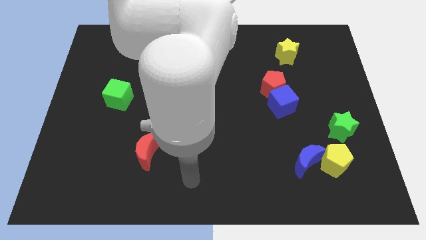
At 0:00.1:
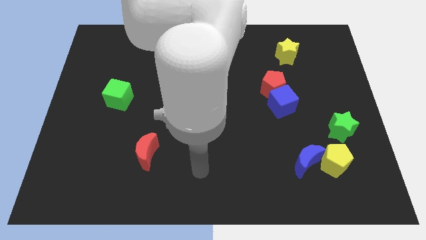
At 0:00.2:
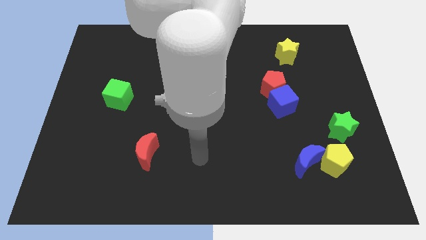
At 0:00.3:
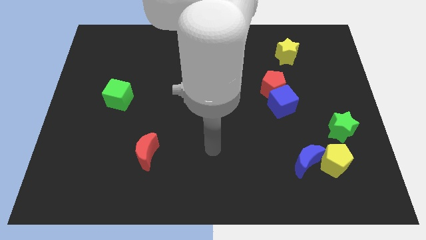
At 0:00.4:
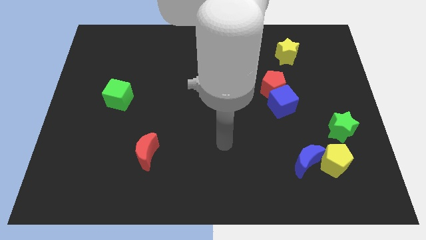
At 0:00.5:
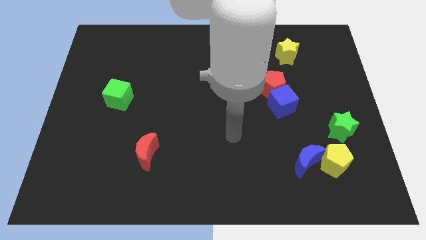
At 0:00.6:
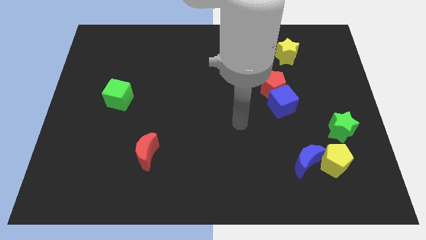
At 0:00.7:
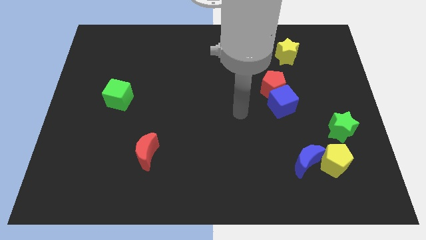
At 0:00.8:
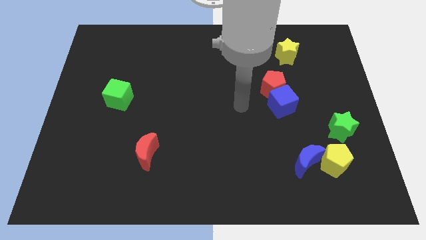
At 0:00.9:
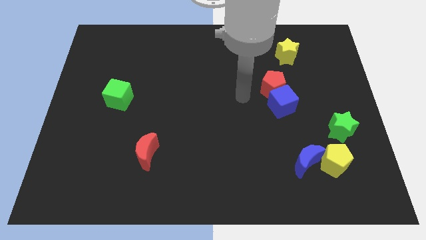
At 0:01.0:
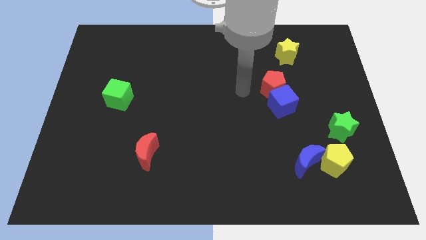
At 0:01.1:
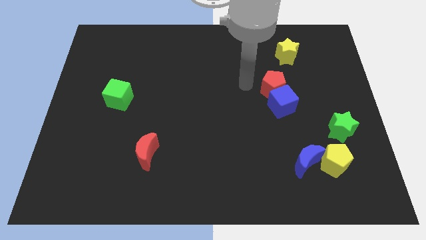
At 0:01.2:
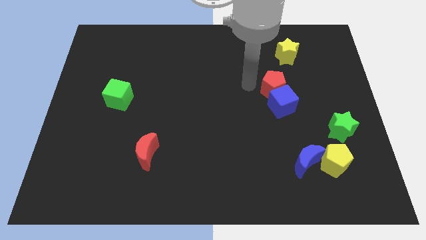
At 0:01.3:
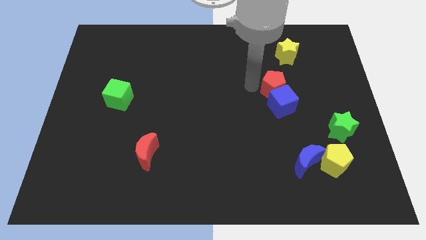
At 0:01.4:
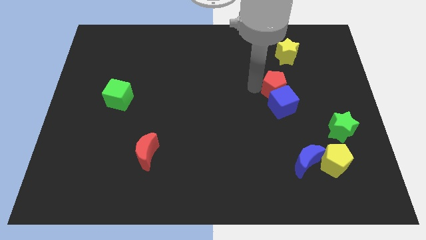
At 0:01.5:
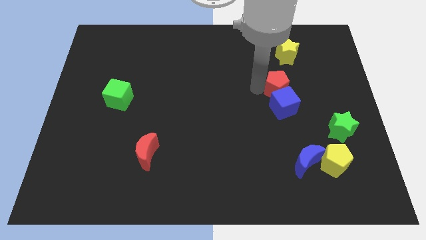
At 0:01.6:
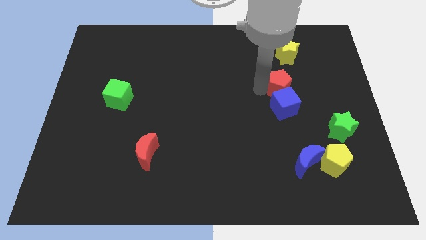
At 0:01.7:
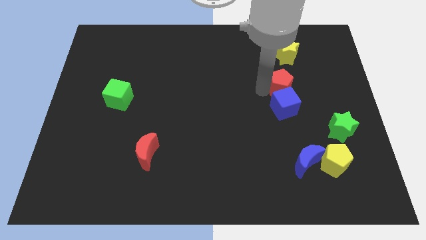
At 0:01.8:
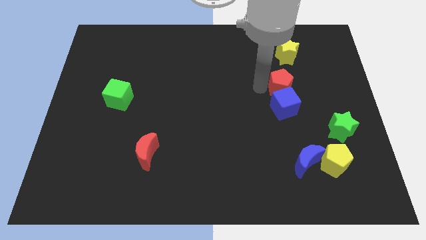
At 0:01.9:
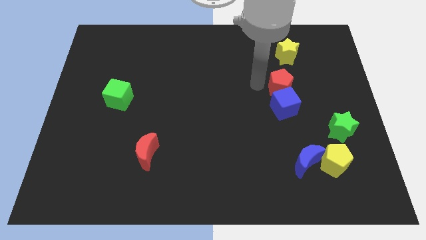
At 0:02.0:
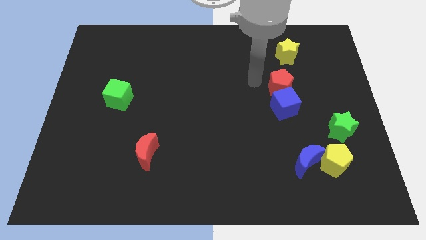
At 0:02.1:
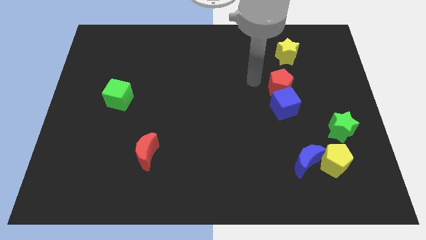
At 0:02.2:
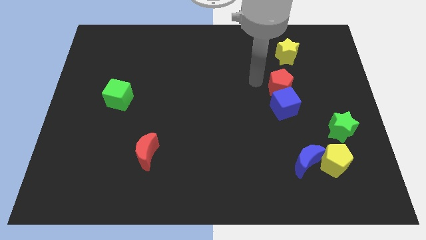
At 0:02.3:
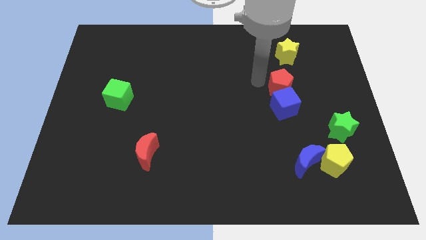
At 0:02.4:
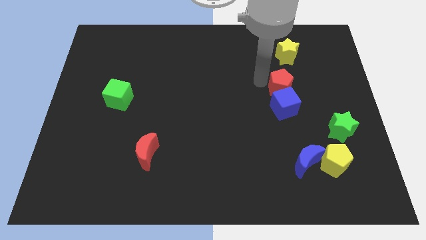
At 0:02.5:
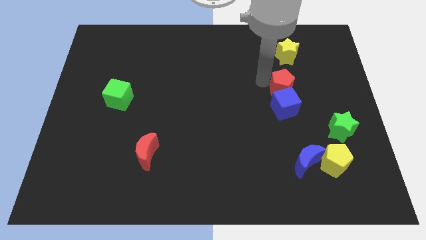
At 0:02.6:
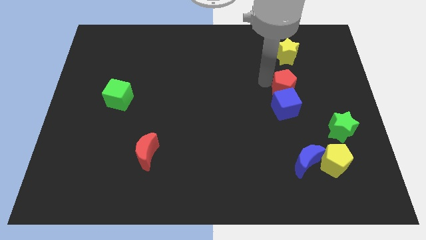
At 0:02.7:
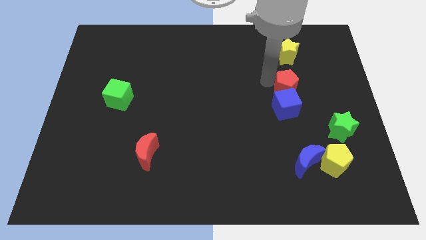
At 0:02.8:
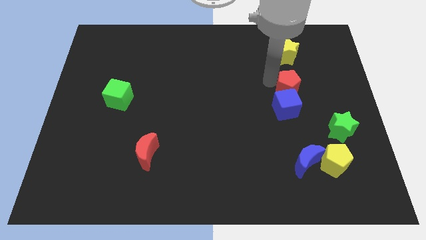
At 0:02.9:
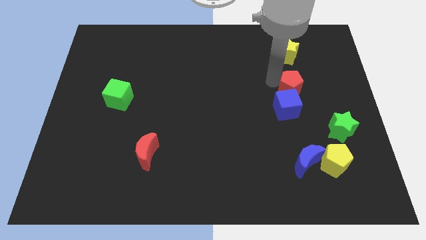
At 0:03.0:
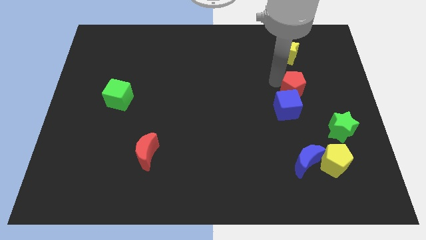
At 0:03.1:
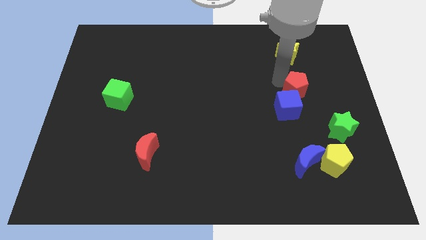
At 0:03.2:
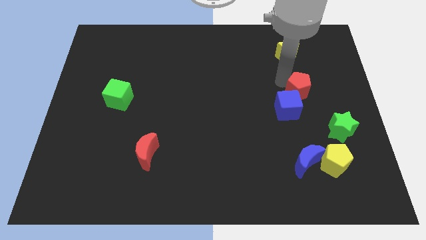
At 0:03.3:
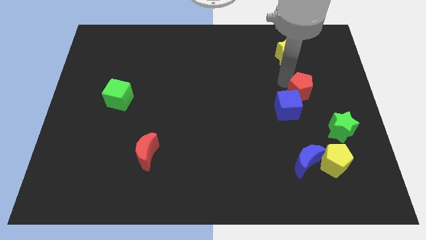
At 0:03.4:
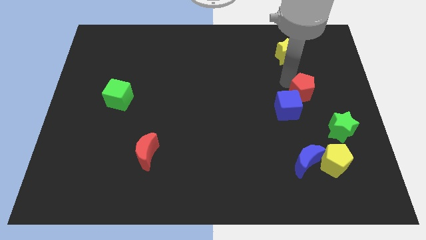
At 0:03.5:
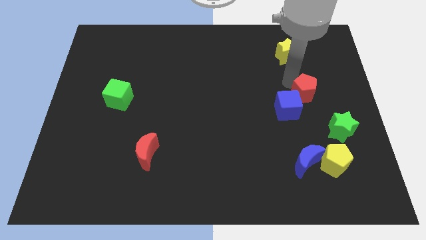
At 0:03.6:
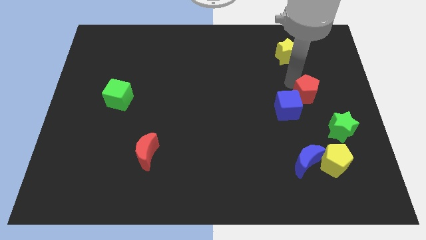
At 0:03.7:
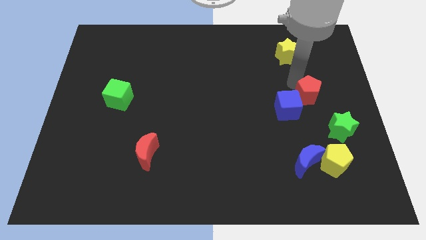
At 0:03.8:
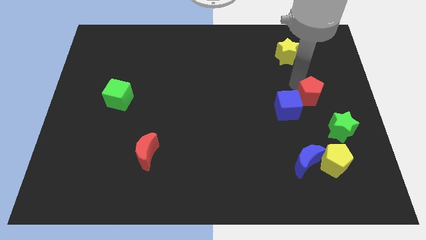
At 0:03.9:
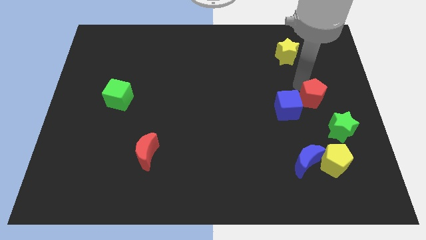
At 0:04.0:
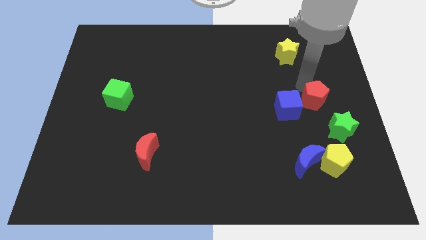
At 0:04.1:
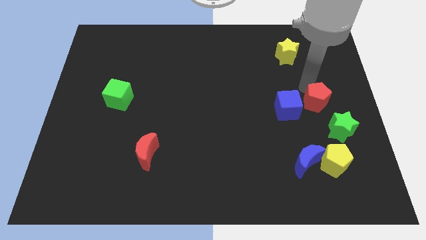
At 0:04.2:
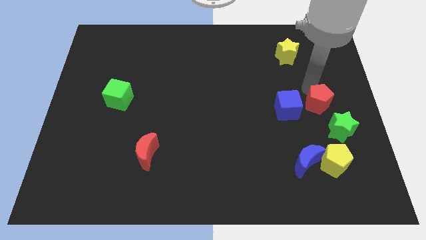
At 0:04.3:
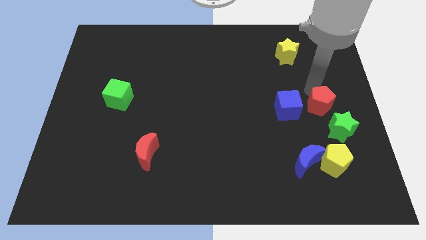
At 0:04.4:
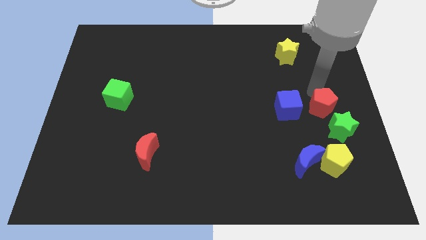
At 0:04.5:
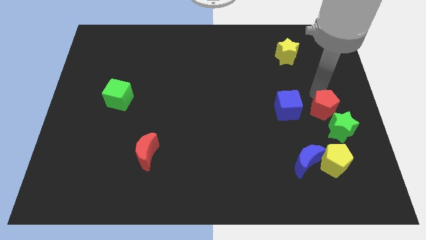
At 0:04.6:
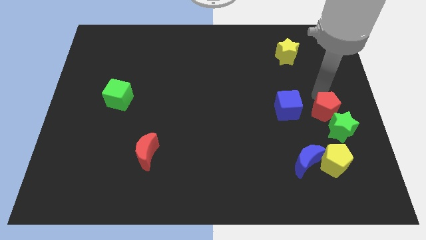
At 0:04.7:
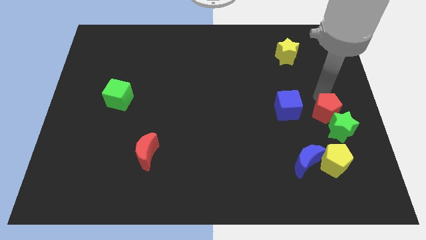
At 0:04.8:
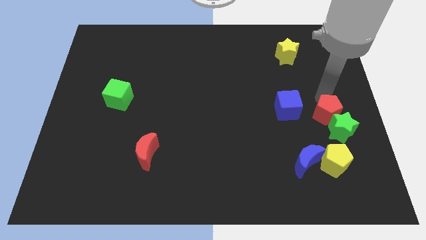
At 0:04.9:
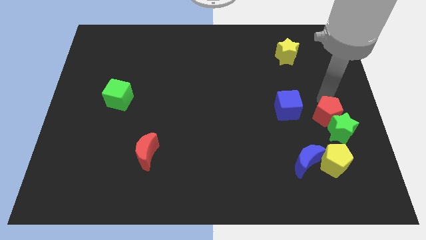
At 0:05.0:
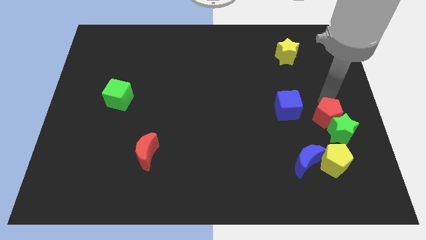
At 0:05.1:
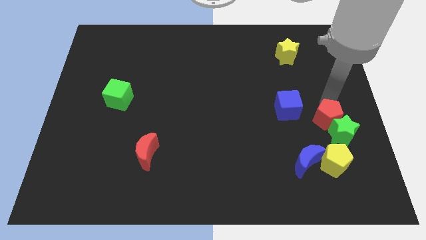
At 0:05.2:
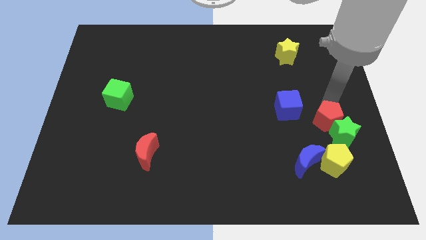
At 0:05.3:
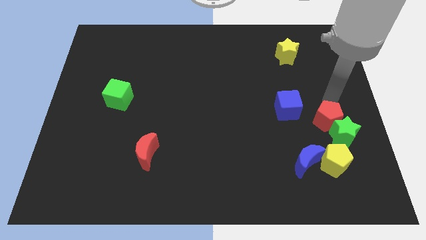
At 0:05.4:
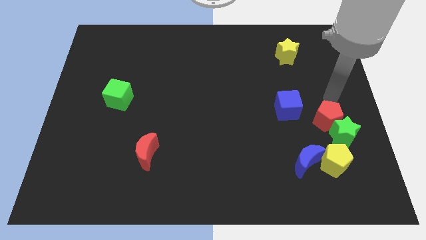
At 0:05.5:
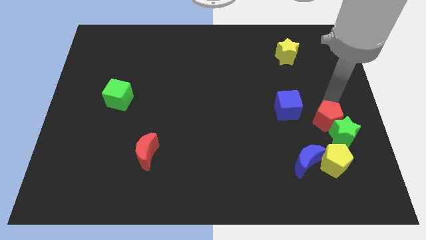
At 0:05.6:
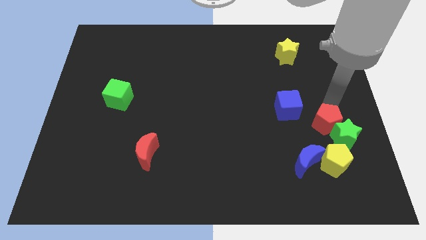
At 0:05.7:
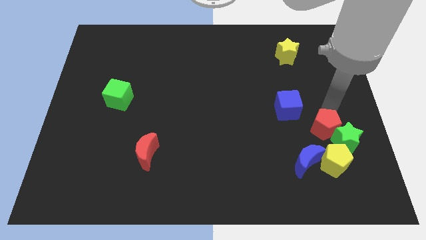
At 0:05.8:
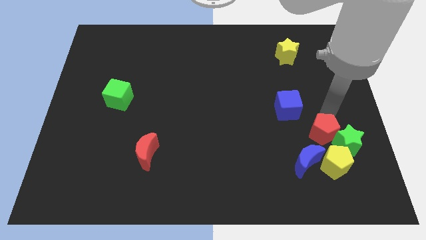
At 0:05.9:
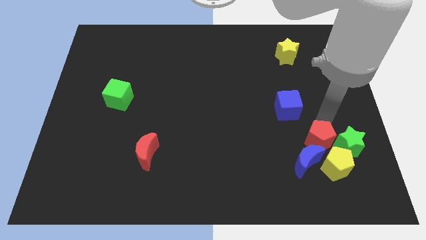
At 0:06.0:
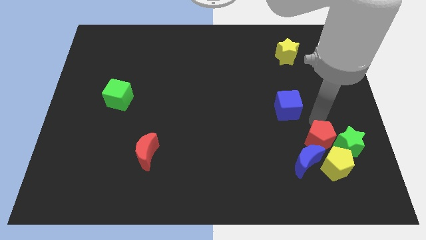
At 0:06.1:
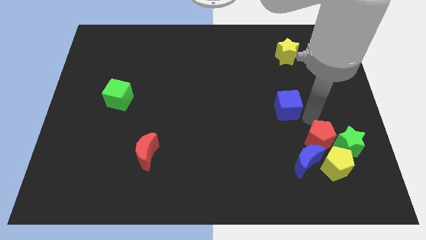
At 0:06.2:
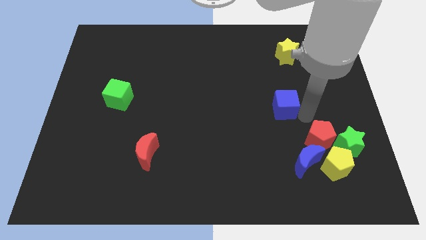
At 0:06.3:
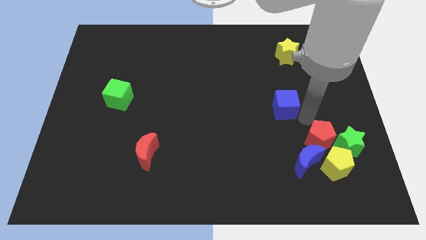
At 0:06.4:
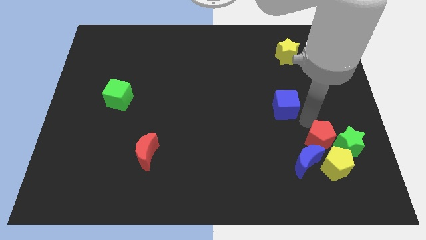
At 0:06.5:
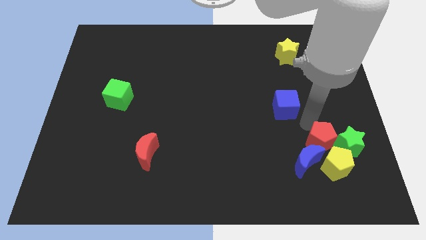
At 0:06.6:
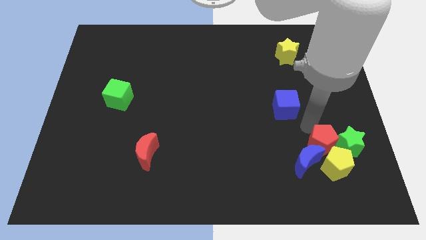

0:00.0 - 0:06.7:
move the red pentagon towards the yellow pentagon
